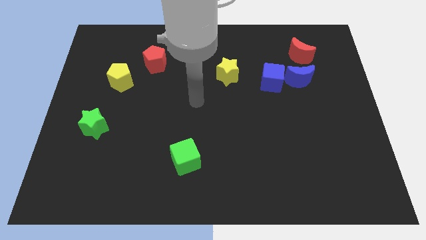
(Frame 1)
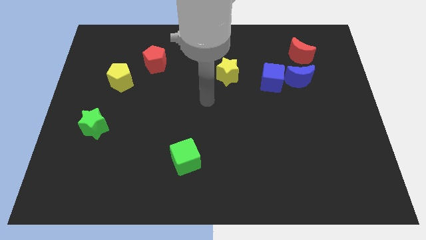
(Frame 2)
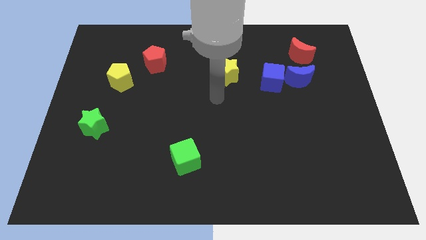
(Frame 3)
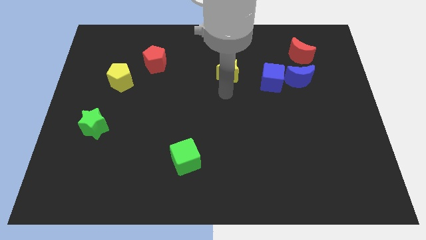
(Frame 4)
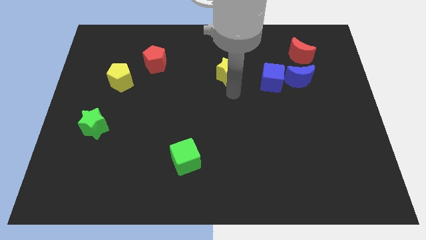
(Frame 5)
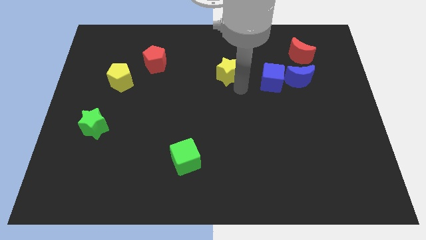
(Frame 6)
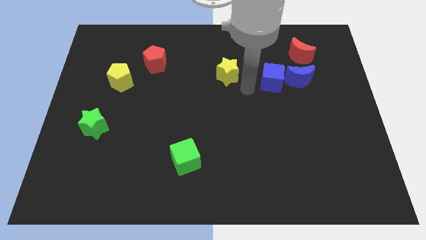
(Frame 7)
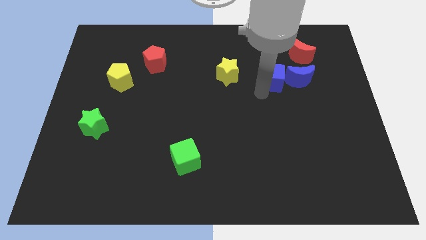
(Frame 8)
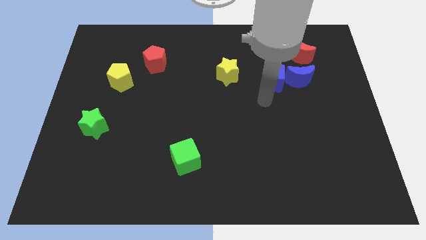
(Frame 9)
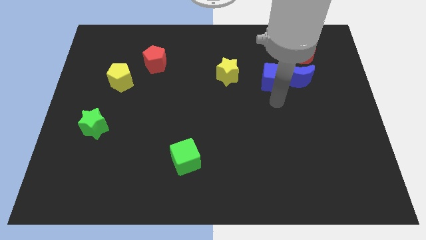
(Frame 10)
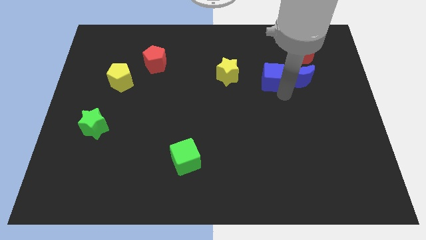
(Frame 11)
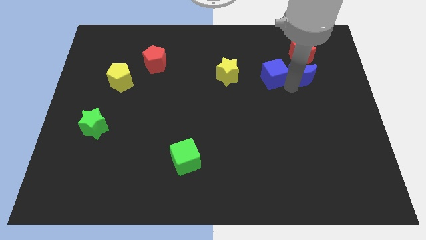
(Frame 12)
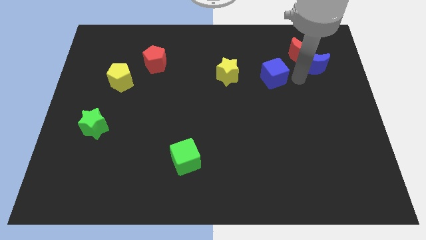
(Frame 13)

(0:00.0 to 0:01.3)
separate the blue cube from the blue moon

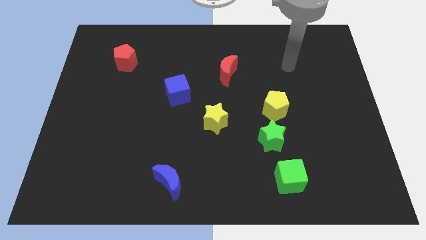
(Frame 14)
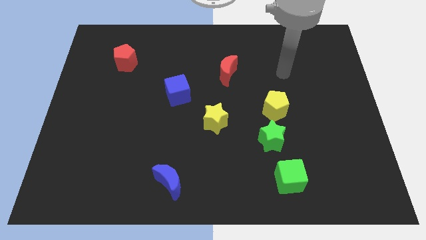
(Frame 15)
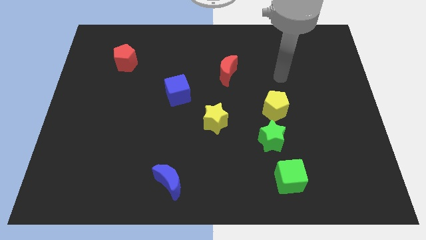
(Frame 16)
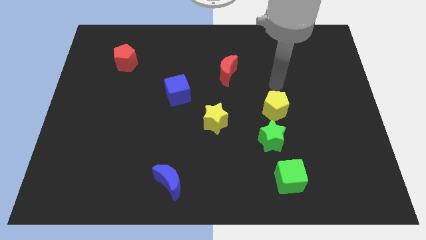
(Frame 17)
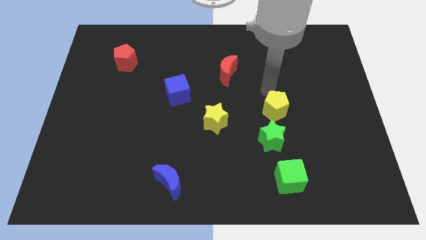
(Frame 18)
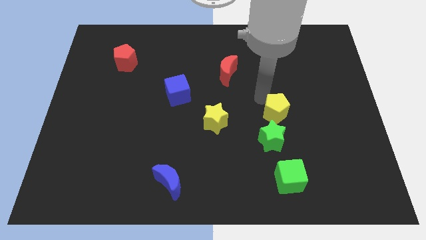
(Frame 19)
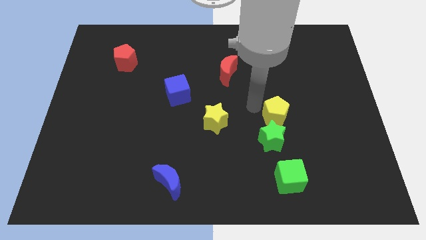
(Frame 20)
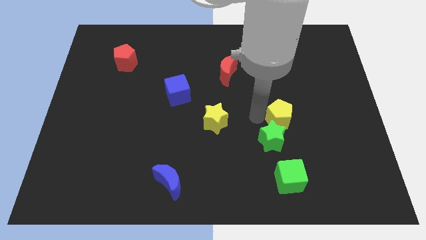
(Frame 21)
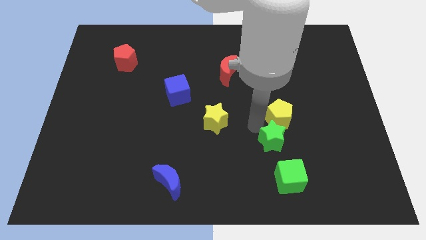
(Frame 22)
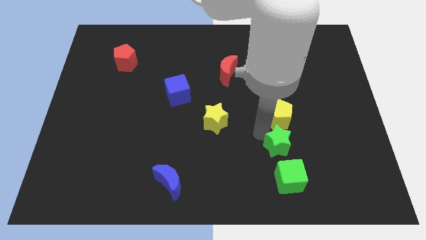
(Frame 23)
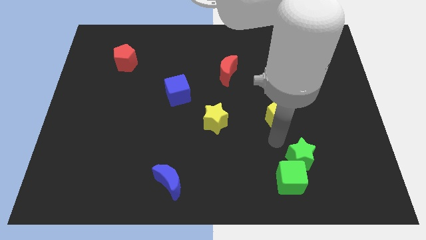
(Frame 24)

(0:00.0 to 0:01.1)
move the yellow pentagon away from the green star

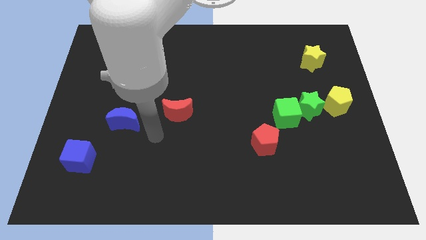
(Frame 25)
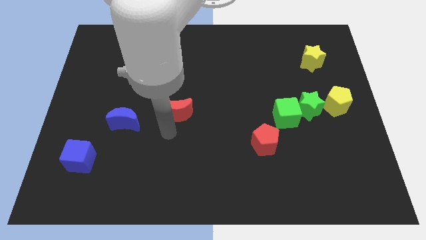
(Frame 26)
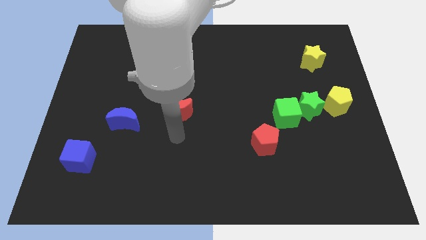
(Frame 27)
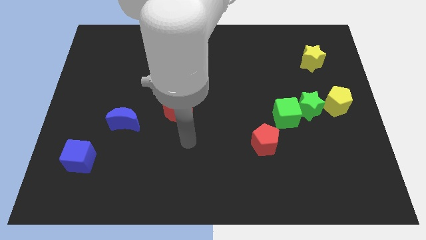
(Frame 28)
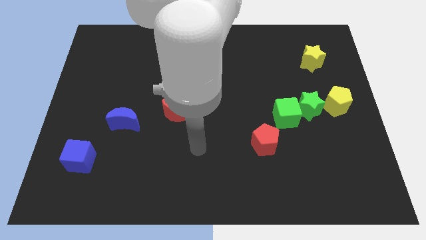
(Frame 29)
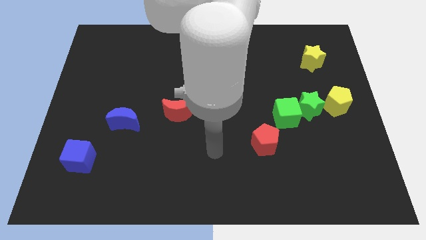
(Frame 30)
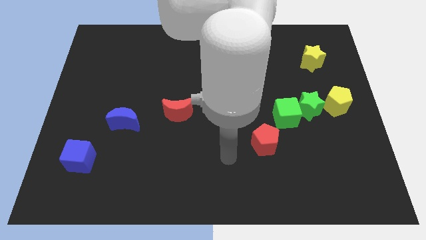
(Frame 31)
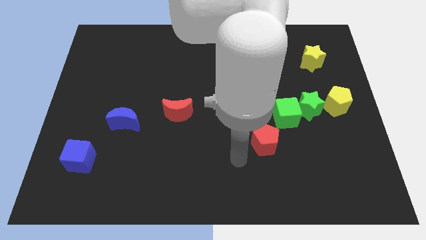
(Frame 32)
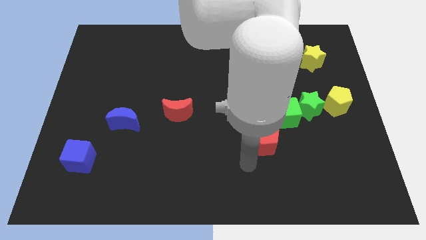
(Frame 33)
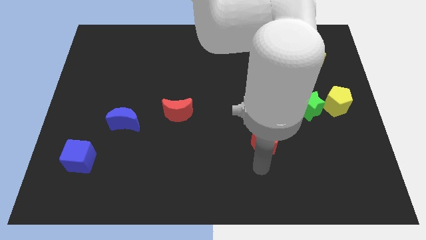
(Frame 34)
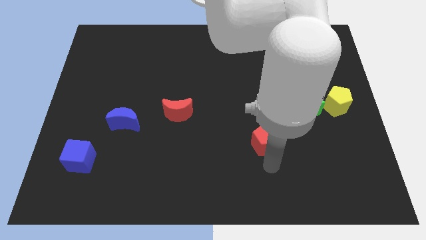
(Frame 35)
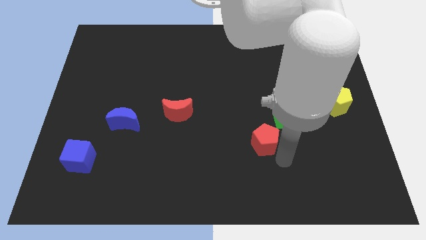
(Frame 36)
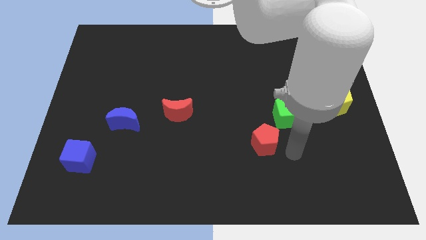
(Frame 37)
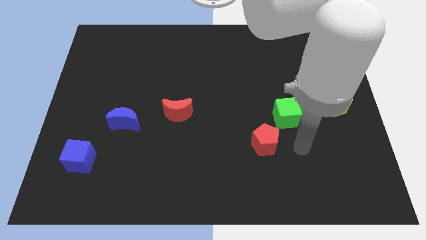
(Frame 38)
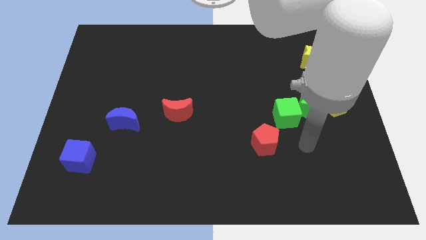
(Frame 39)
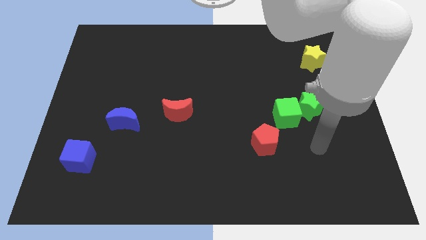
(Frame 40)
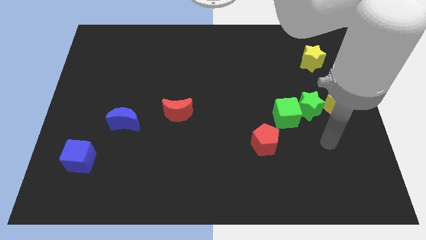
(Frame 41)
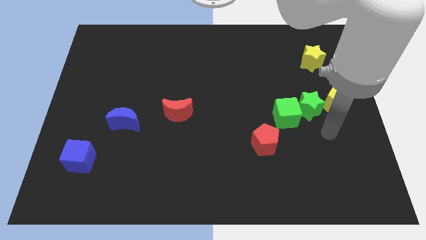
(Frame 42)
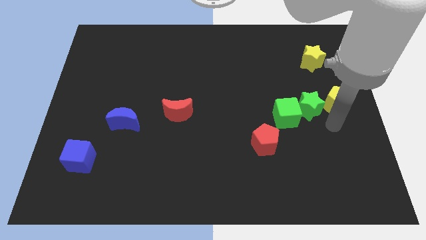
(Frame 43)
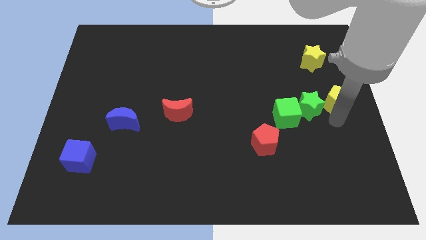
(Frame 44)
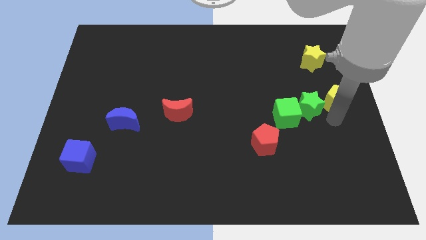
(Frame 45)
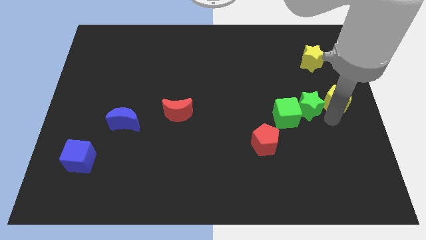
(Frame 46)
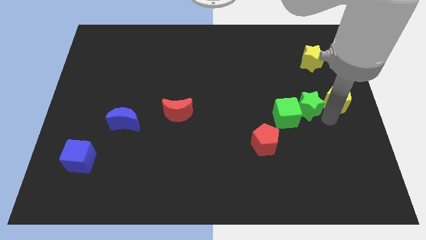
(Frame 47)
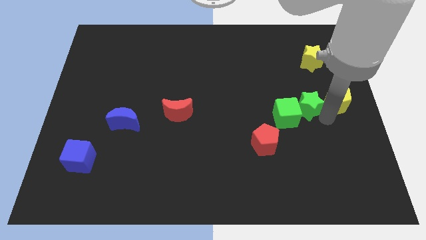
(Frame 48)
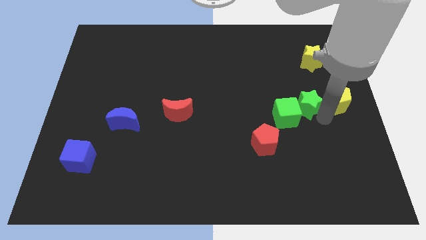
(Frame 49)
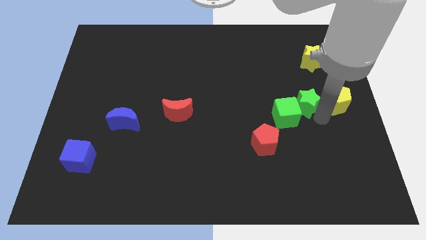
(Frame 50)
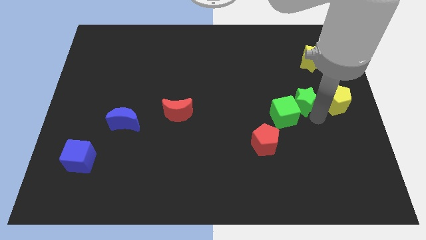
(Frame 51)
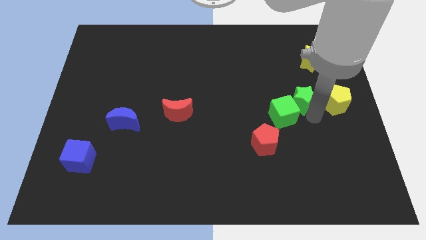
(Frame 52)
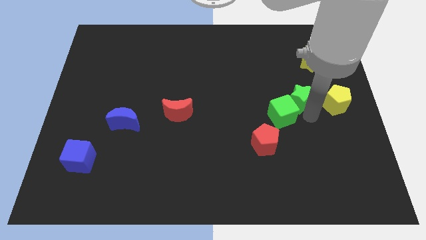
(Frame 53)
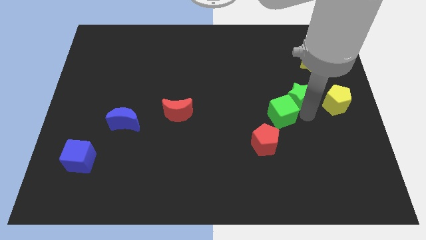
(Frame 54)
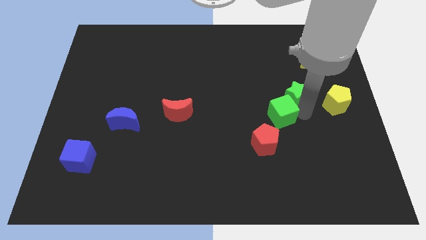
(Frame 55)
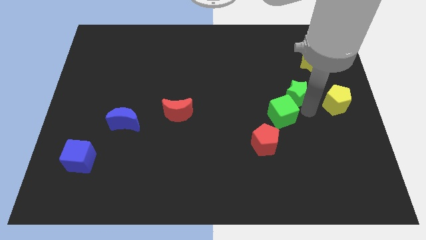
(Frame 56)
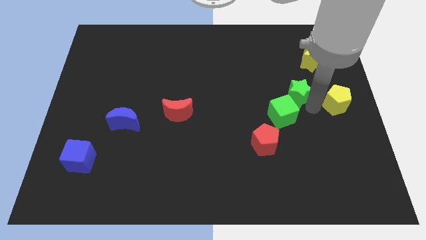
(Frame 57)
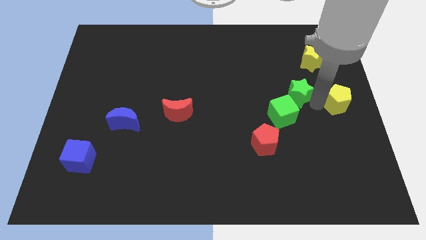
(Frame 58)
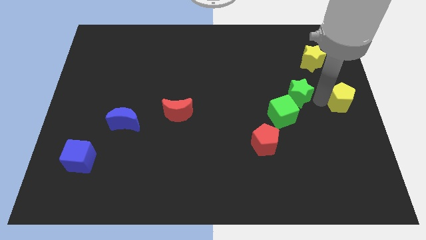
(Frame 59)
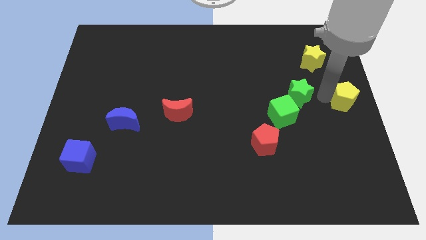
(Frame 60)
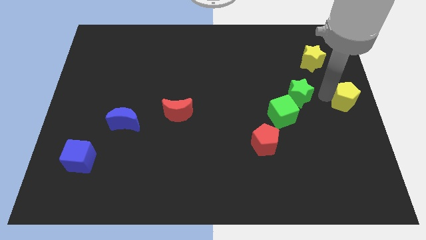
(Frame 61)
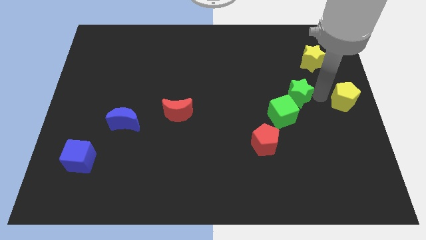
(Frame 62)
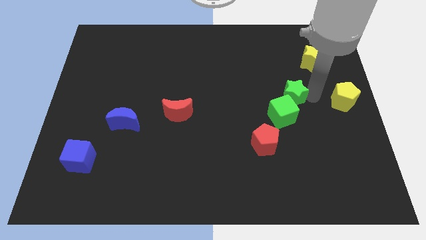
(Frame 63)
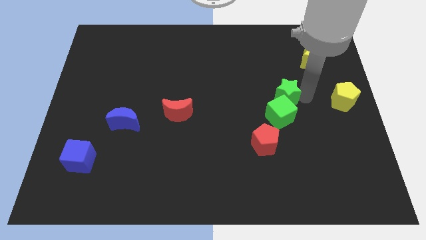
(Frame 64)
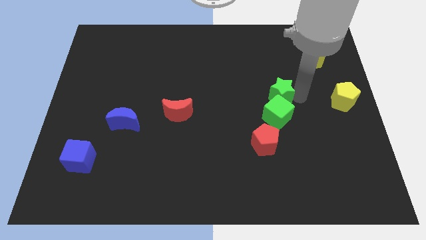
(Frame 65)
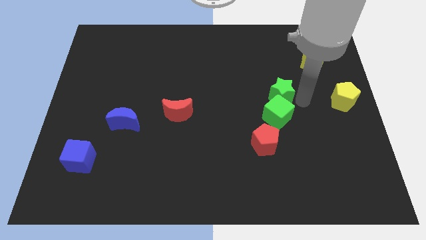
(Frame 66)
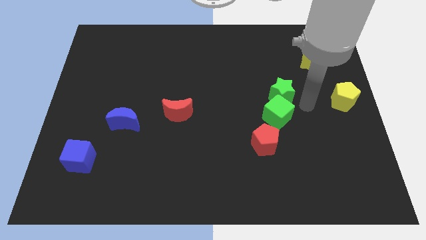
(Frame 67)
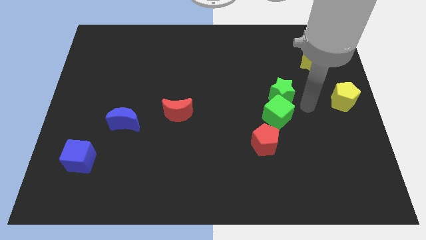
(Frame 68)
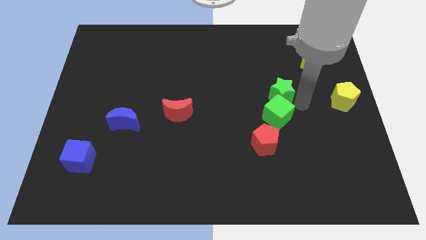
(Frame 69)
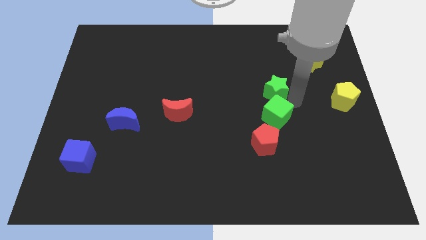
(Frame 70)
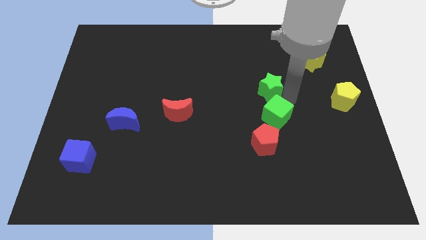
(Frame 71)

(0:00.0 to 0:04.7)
pull the green star apart from the green cube and yellow pentagon

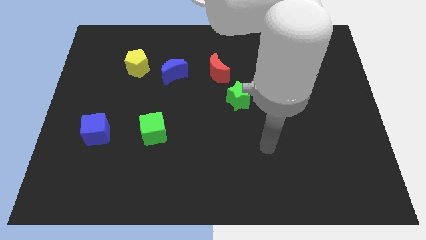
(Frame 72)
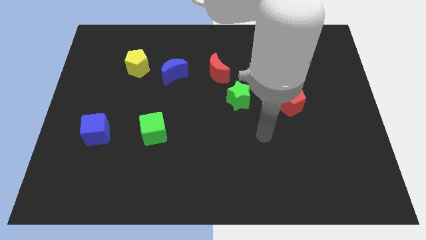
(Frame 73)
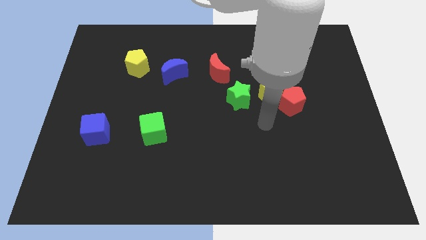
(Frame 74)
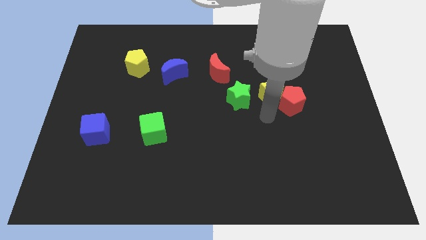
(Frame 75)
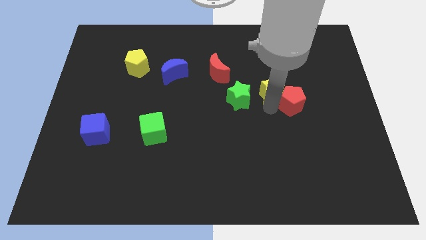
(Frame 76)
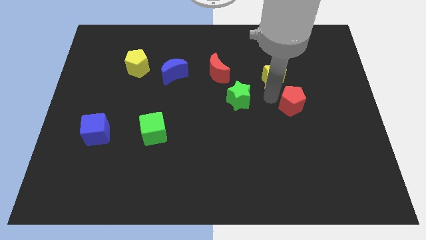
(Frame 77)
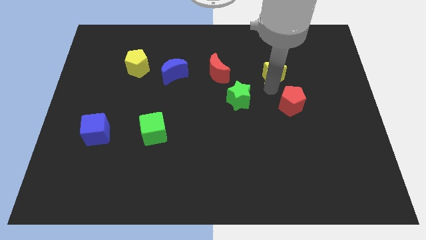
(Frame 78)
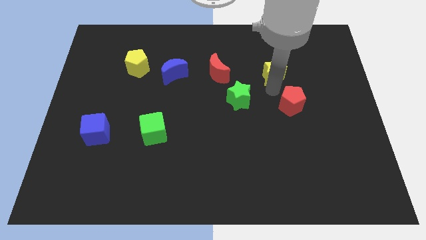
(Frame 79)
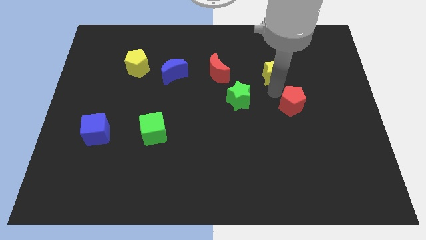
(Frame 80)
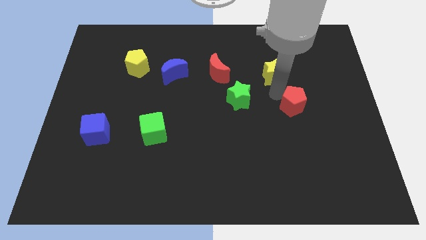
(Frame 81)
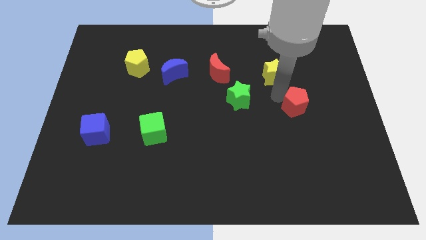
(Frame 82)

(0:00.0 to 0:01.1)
separate the red pentagon from the yellow star

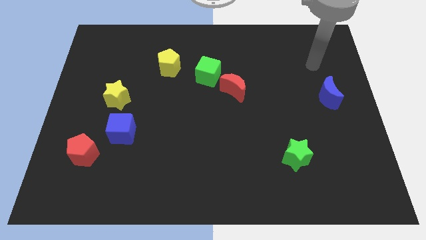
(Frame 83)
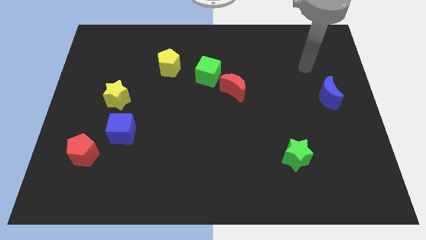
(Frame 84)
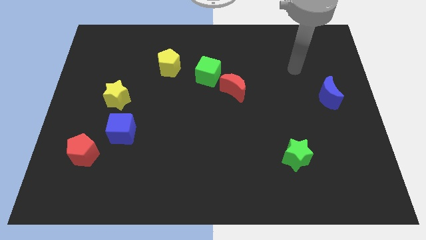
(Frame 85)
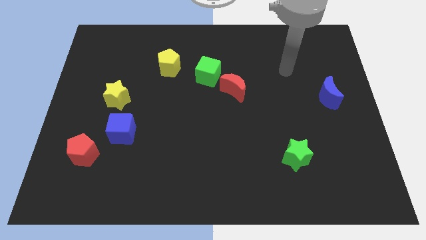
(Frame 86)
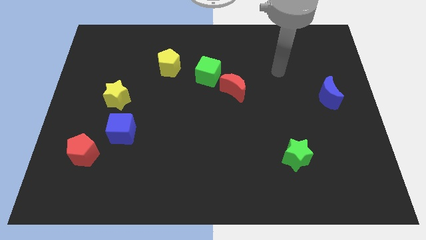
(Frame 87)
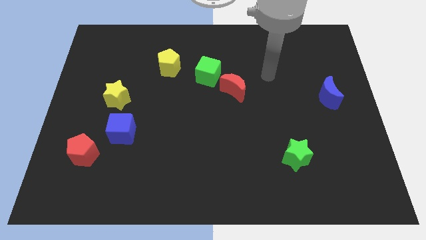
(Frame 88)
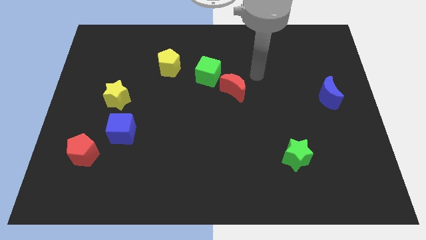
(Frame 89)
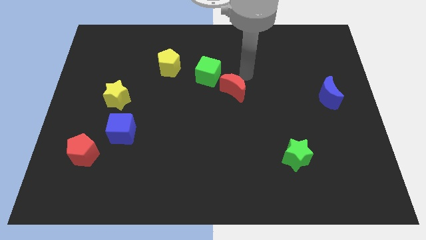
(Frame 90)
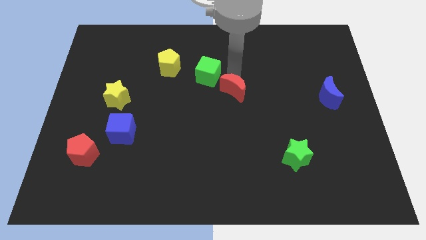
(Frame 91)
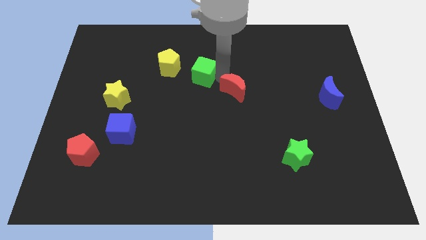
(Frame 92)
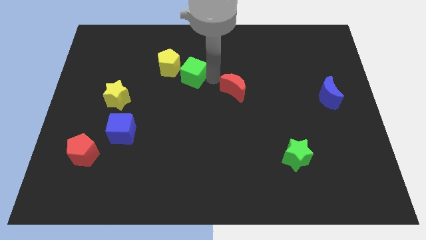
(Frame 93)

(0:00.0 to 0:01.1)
separate the red moon from the green cube
